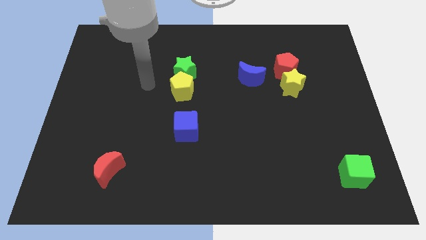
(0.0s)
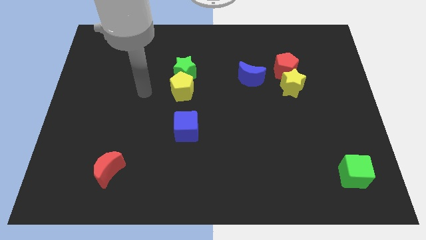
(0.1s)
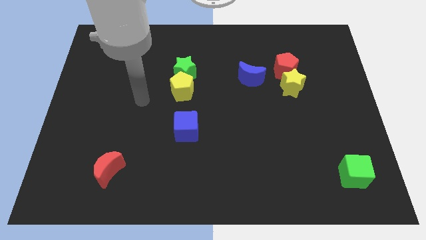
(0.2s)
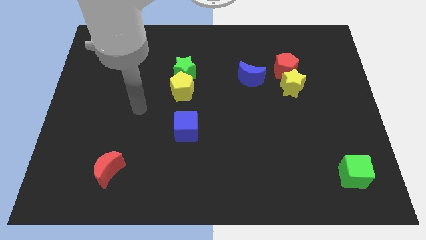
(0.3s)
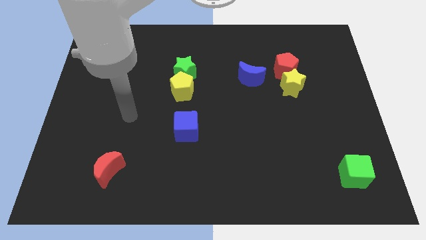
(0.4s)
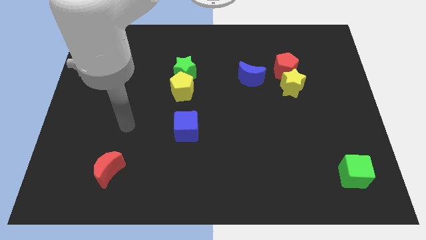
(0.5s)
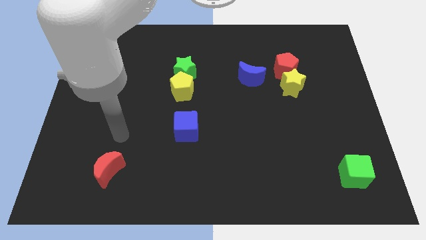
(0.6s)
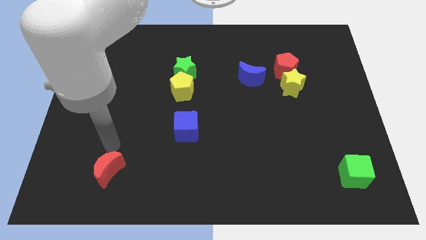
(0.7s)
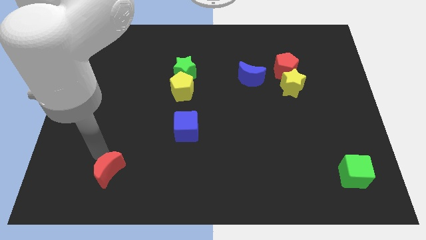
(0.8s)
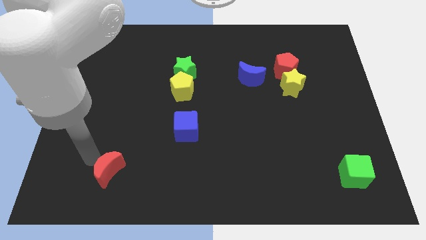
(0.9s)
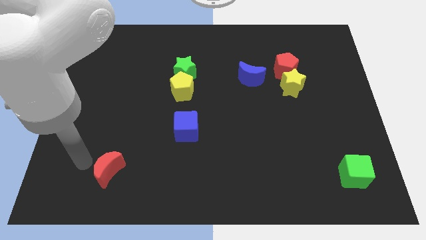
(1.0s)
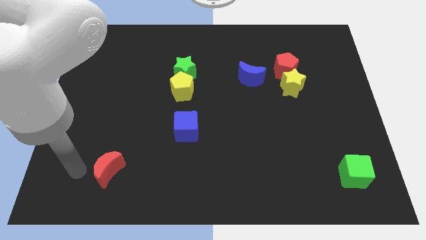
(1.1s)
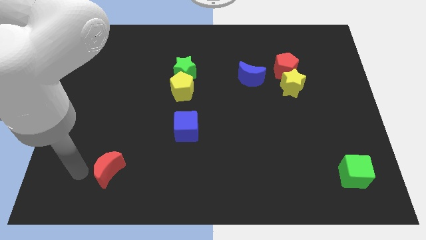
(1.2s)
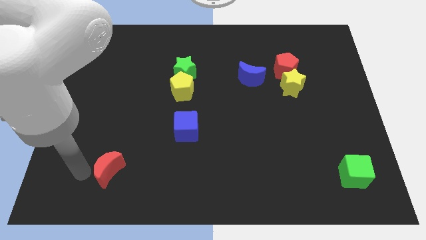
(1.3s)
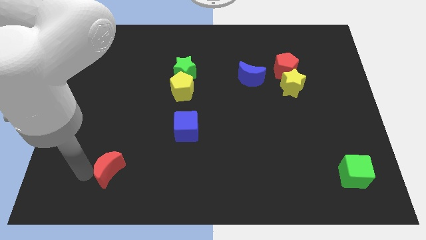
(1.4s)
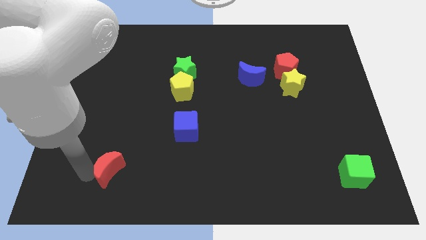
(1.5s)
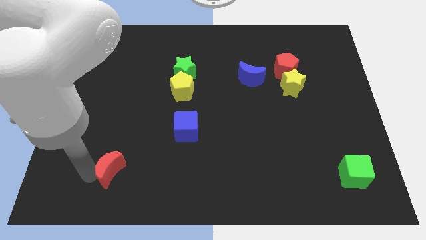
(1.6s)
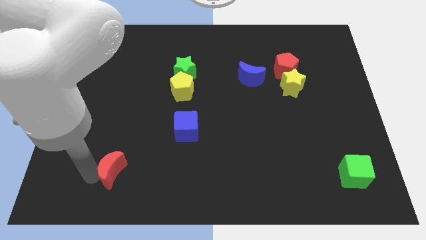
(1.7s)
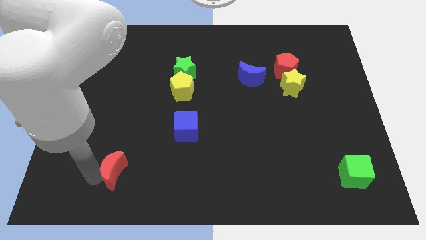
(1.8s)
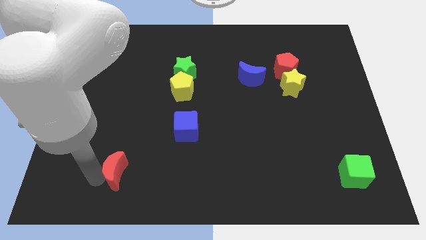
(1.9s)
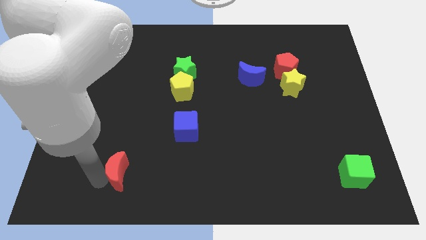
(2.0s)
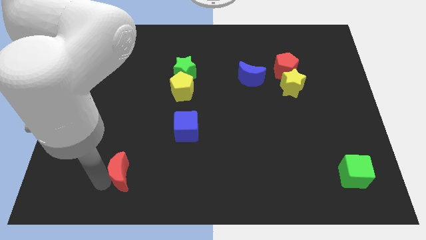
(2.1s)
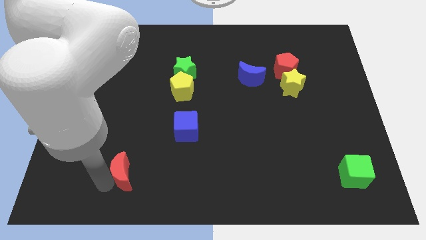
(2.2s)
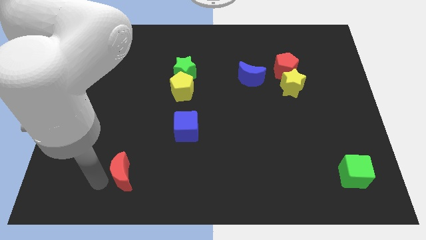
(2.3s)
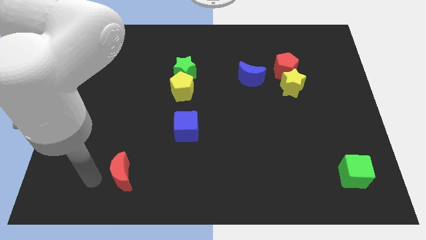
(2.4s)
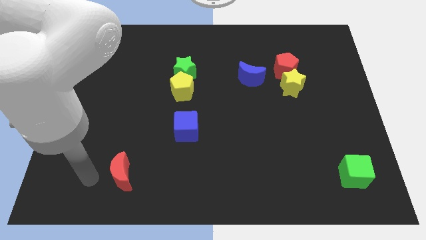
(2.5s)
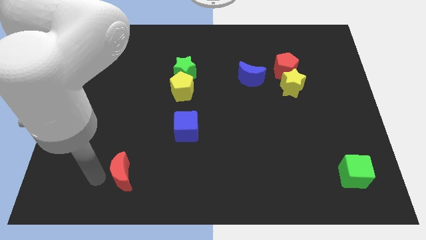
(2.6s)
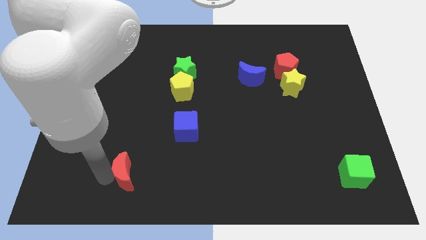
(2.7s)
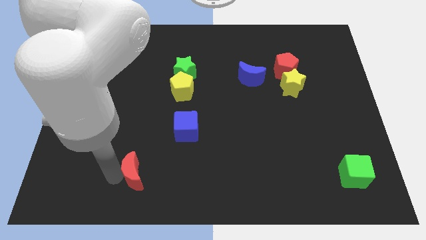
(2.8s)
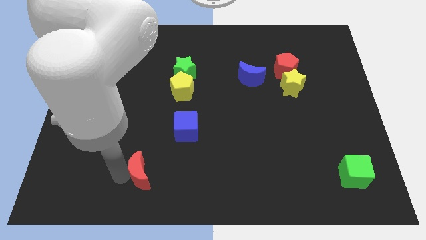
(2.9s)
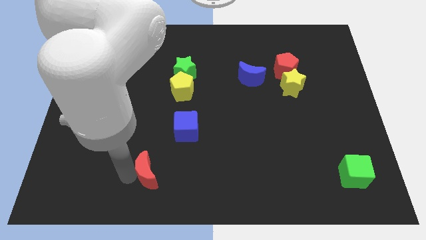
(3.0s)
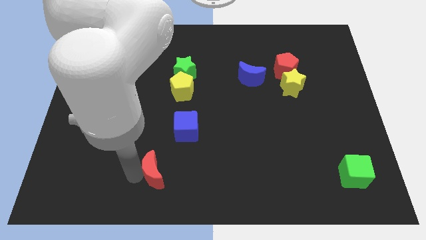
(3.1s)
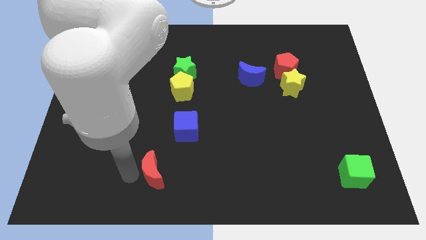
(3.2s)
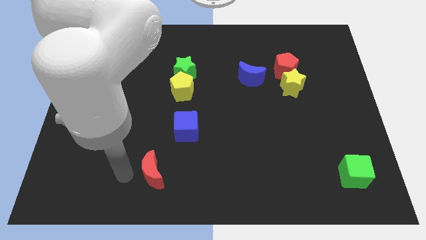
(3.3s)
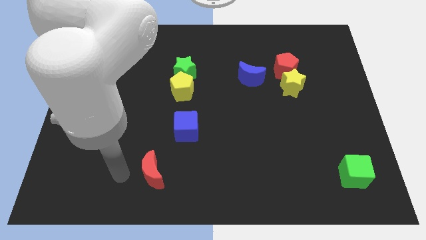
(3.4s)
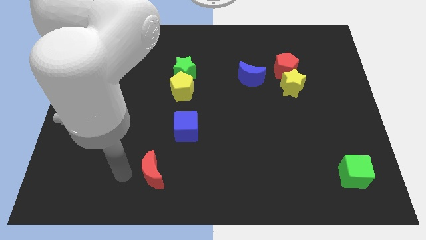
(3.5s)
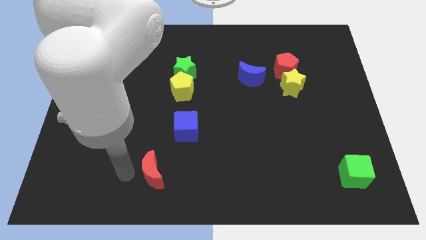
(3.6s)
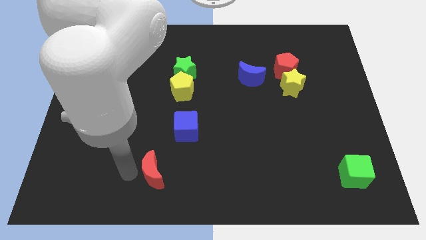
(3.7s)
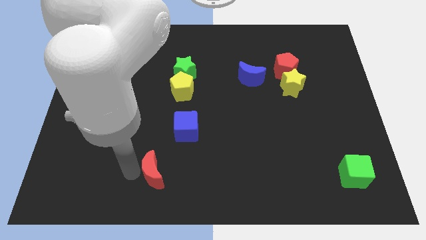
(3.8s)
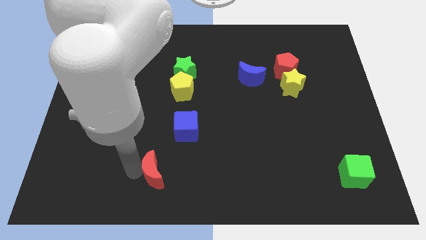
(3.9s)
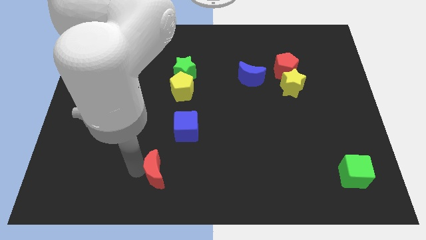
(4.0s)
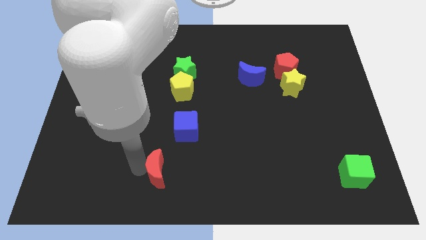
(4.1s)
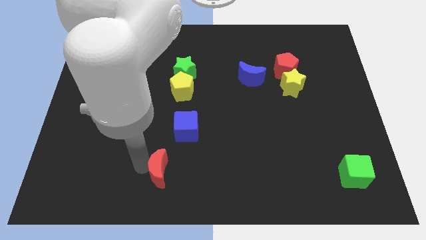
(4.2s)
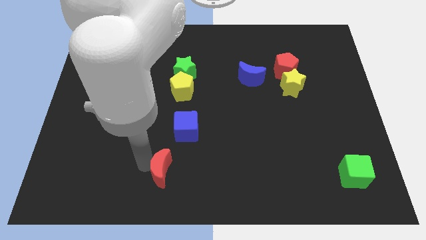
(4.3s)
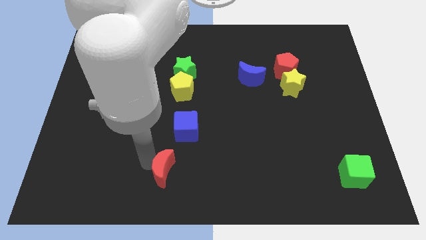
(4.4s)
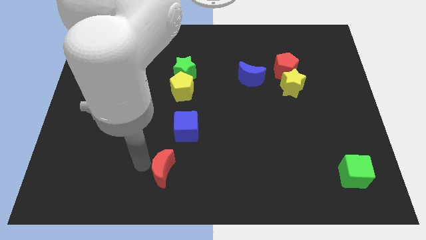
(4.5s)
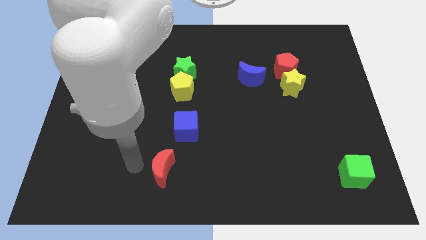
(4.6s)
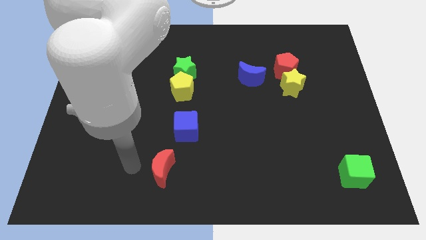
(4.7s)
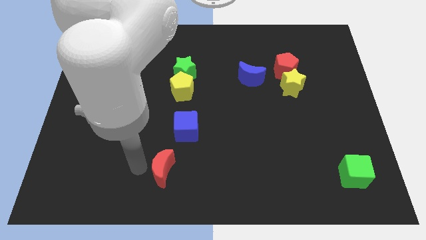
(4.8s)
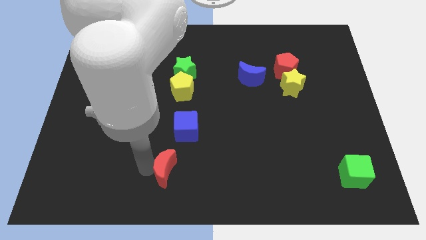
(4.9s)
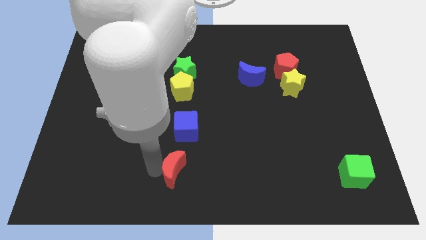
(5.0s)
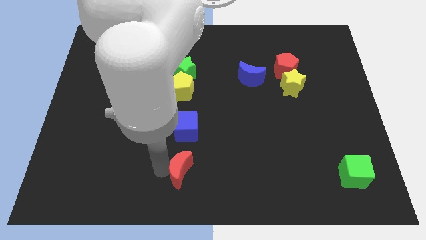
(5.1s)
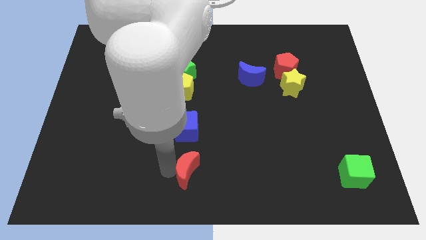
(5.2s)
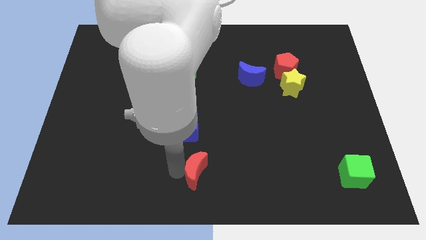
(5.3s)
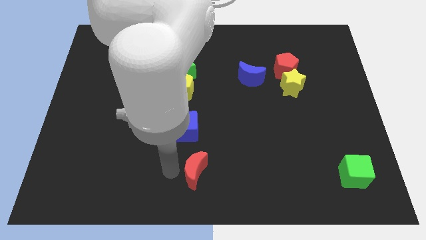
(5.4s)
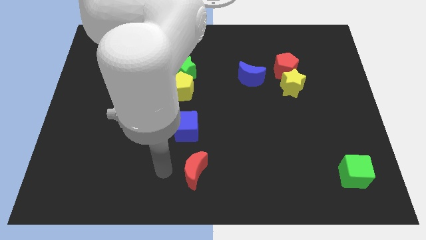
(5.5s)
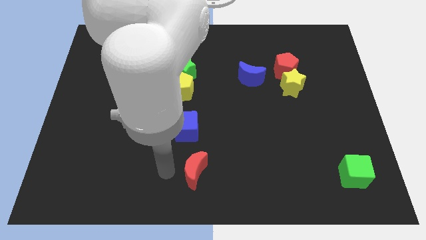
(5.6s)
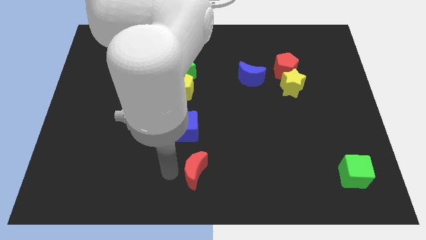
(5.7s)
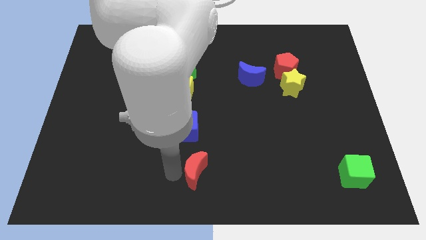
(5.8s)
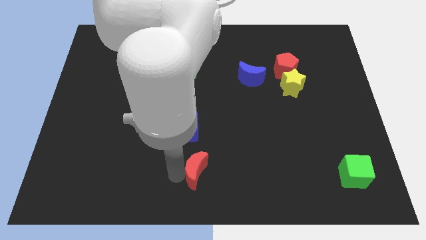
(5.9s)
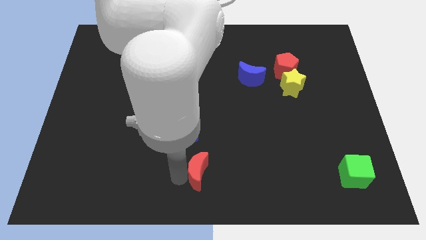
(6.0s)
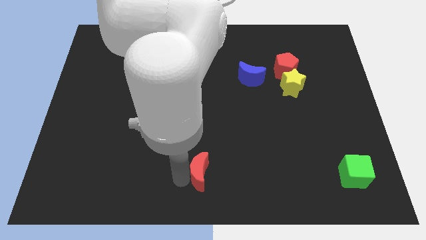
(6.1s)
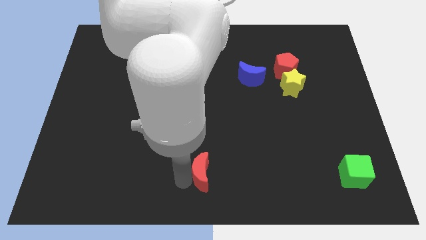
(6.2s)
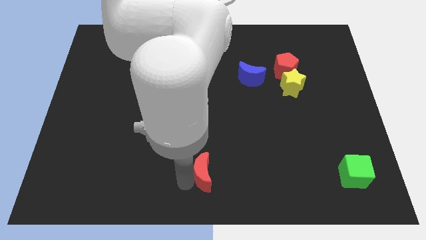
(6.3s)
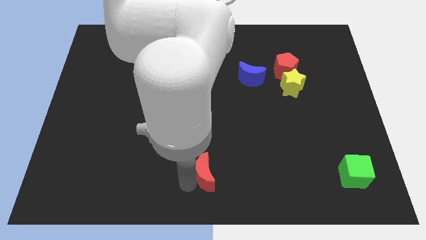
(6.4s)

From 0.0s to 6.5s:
move the red moon to the right

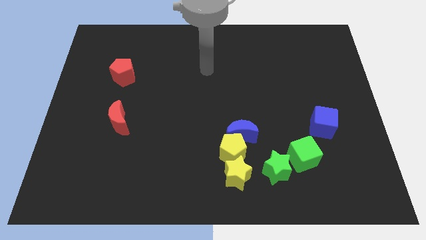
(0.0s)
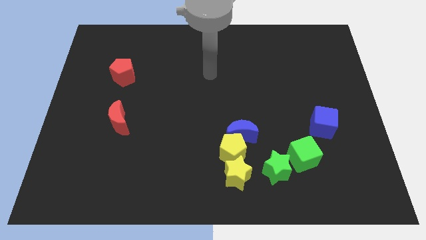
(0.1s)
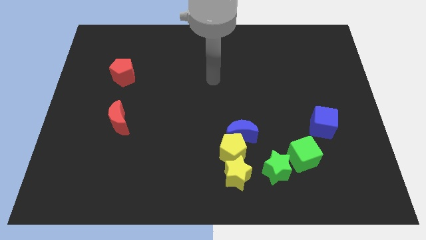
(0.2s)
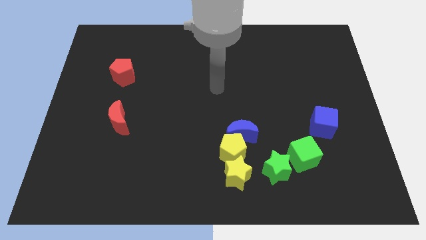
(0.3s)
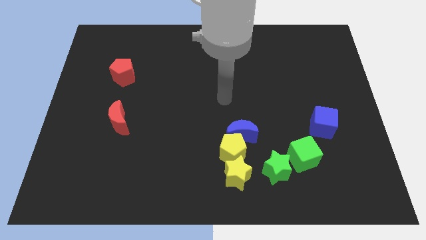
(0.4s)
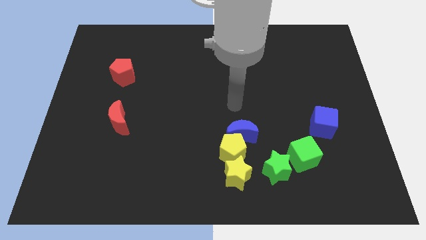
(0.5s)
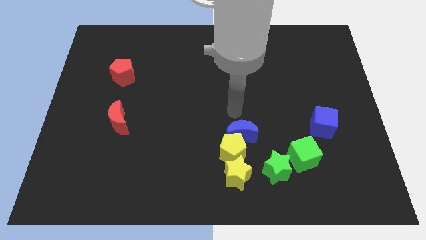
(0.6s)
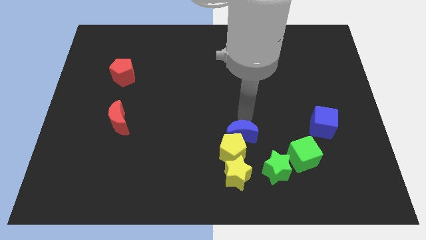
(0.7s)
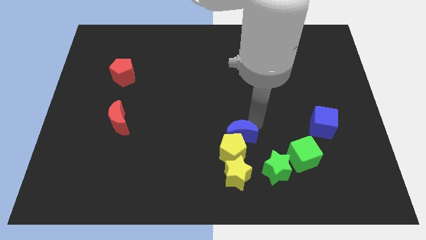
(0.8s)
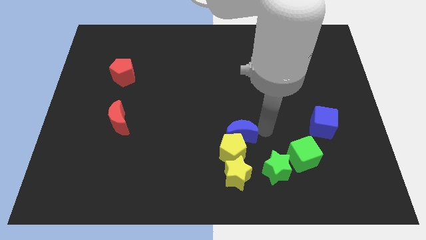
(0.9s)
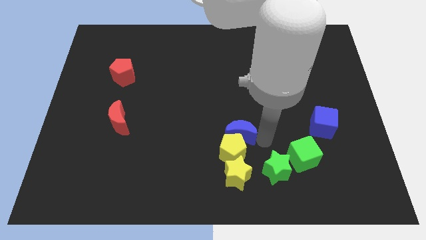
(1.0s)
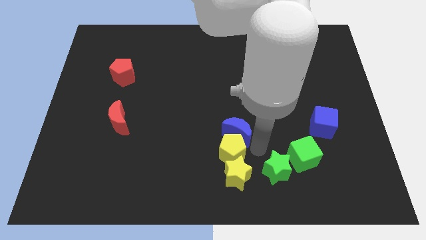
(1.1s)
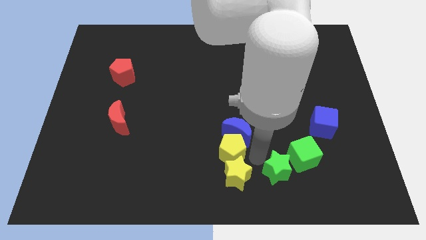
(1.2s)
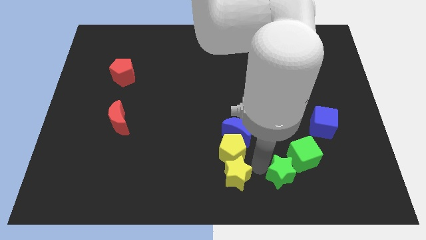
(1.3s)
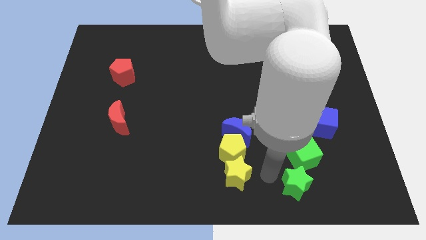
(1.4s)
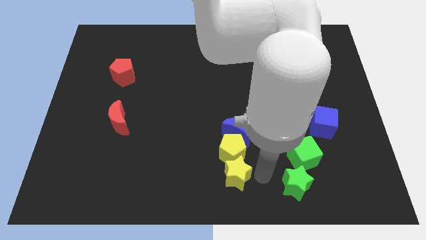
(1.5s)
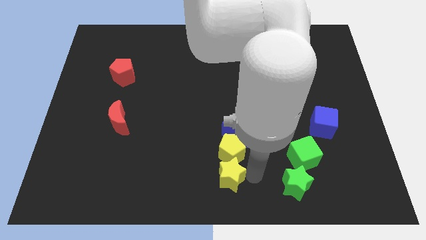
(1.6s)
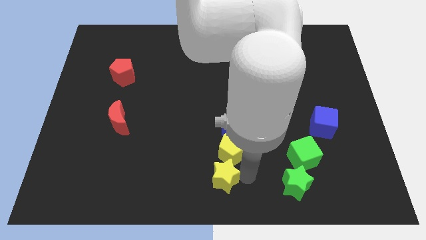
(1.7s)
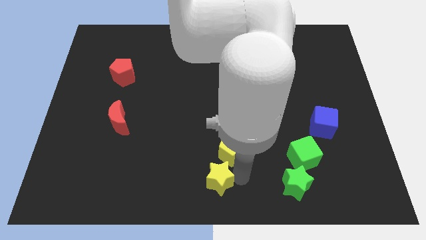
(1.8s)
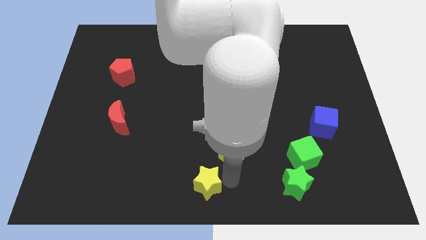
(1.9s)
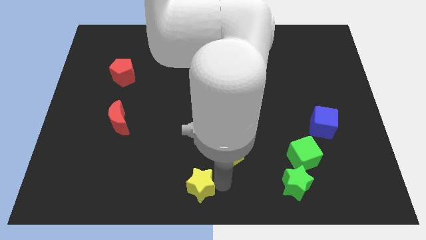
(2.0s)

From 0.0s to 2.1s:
push the yellow star left a bit
